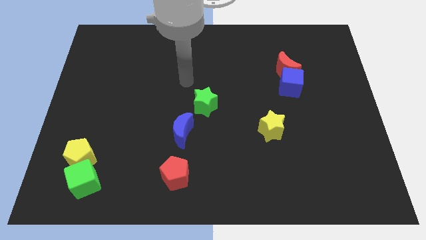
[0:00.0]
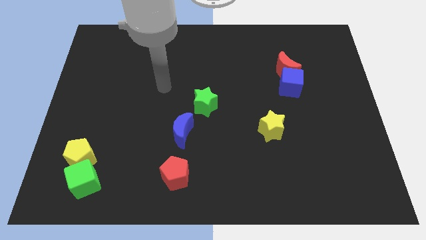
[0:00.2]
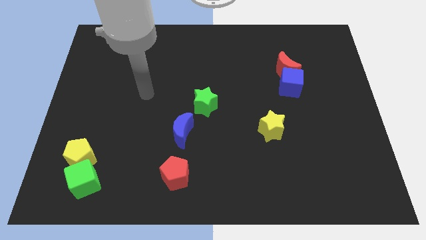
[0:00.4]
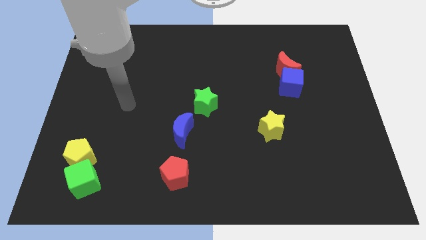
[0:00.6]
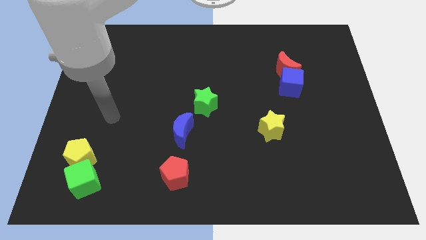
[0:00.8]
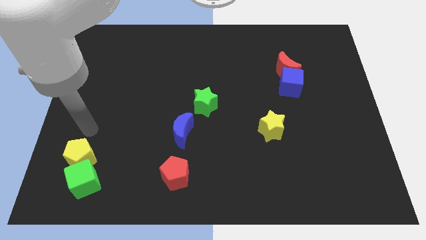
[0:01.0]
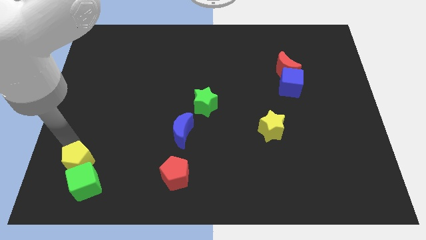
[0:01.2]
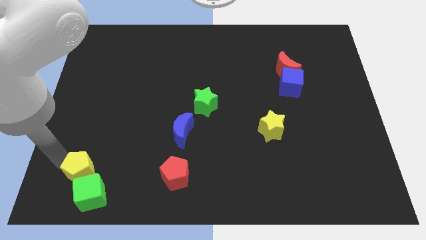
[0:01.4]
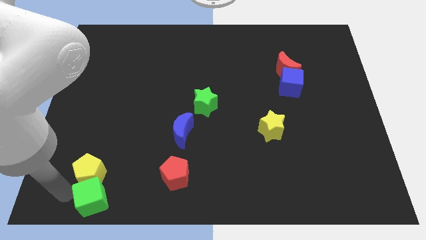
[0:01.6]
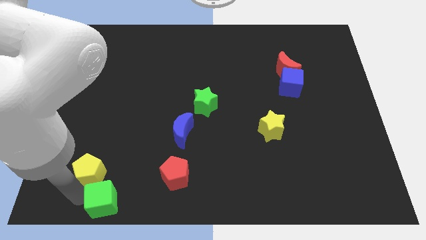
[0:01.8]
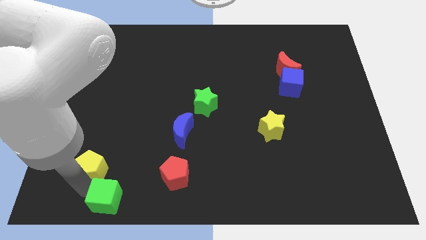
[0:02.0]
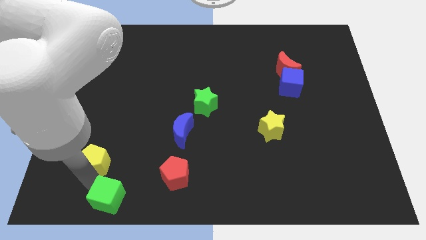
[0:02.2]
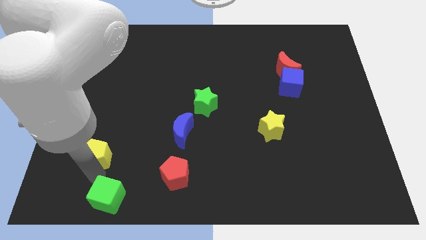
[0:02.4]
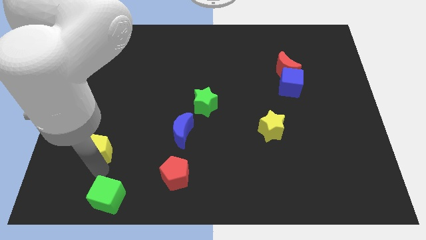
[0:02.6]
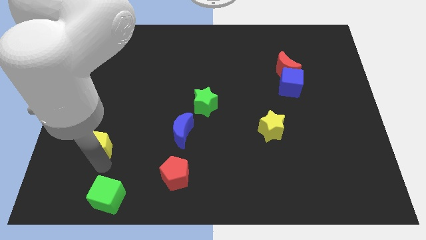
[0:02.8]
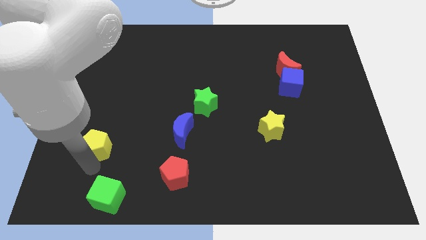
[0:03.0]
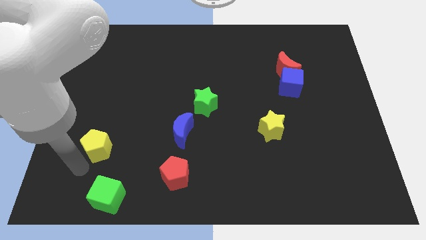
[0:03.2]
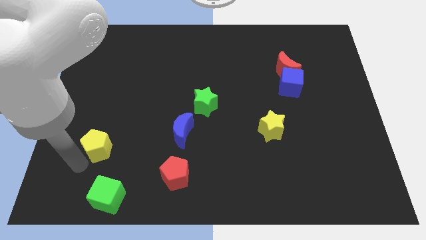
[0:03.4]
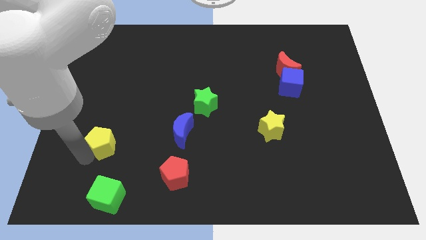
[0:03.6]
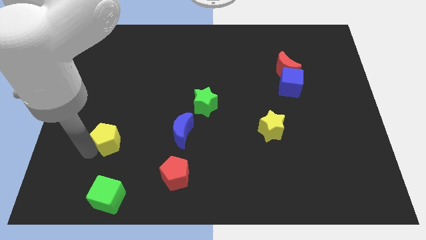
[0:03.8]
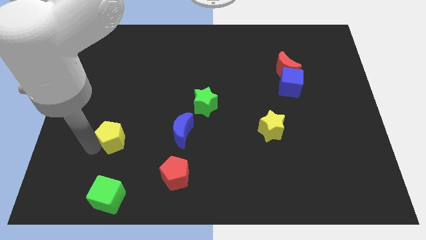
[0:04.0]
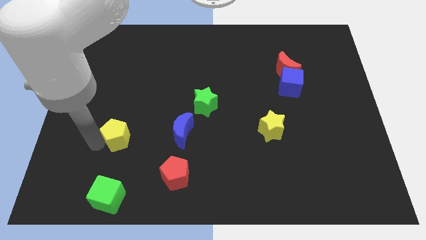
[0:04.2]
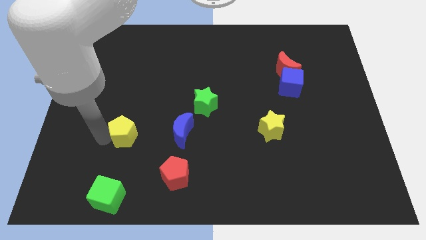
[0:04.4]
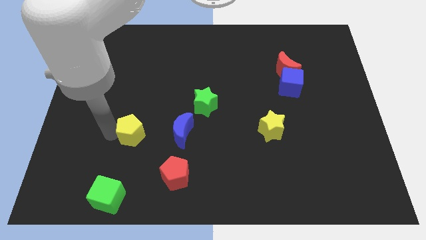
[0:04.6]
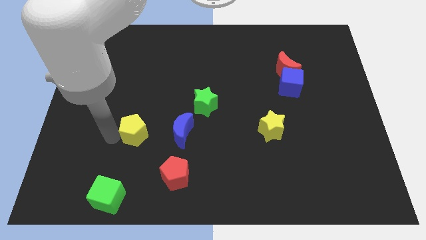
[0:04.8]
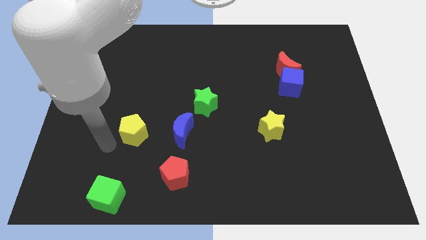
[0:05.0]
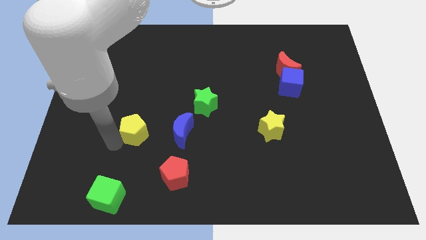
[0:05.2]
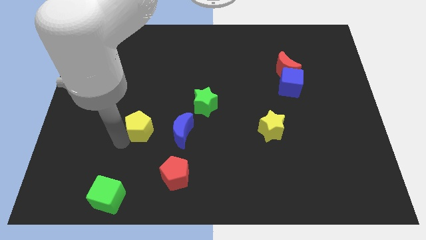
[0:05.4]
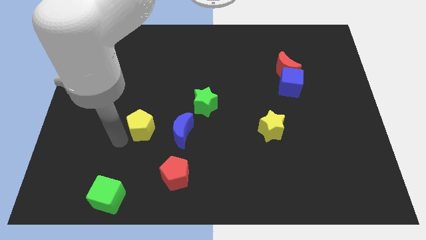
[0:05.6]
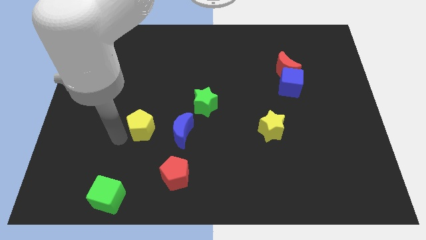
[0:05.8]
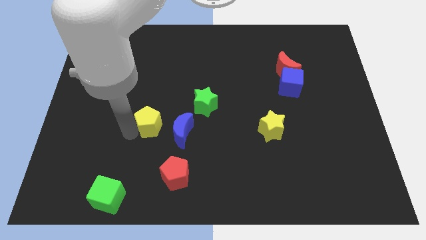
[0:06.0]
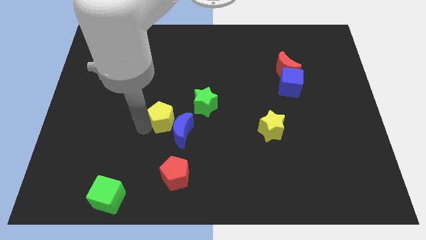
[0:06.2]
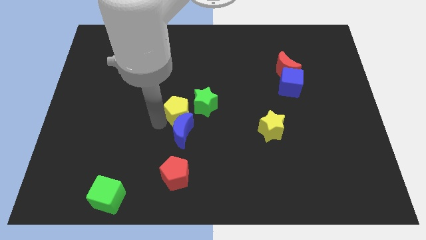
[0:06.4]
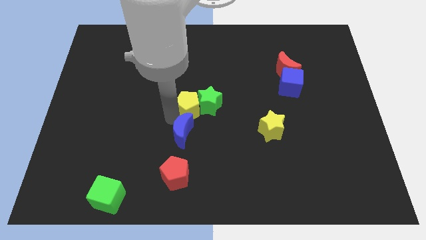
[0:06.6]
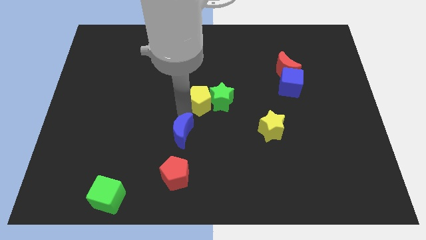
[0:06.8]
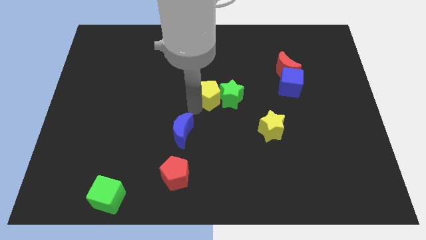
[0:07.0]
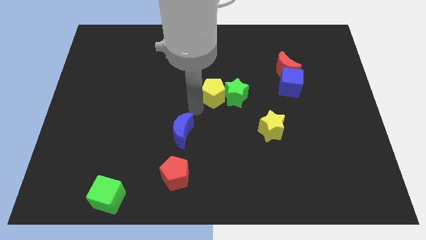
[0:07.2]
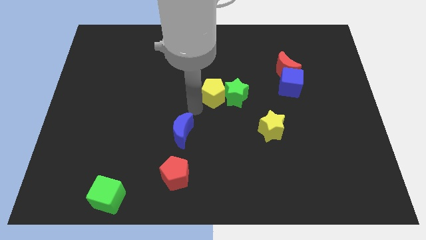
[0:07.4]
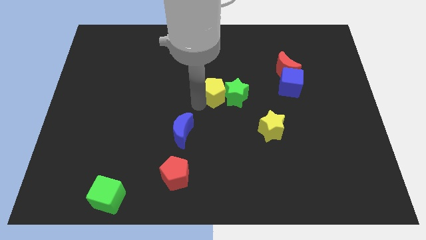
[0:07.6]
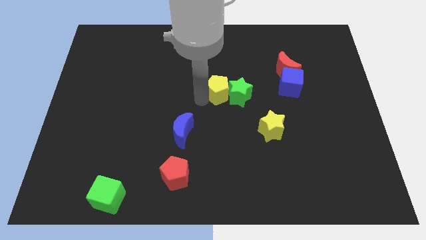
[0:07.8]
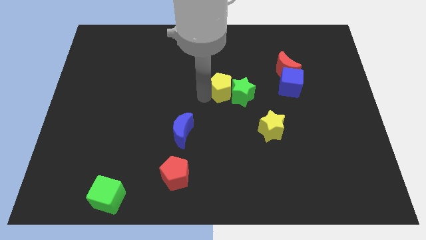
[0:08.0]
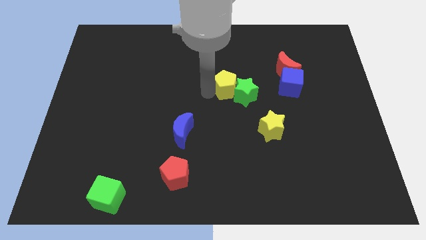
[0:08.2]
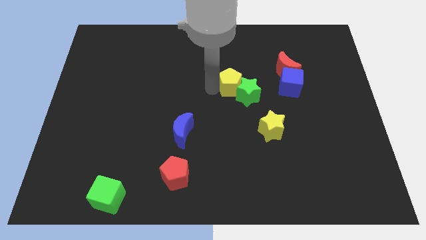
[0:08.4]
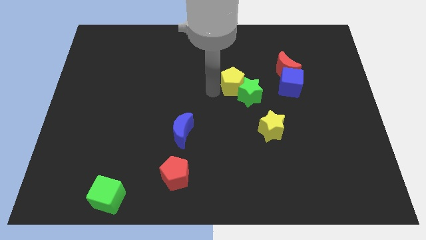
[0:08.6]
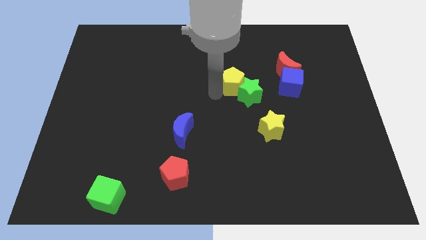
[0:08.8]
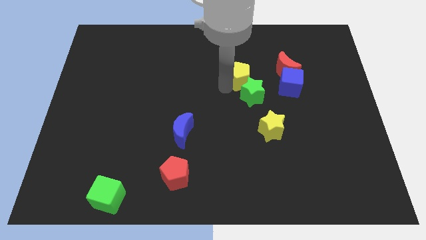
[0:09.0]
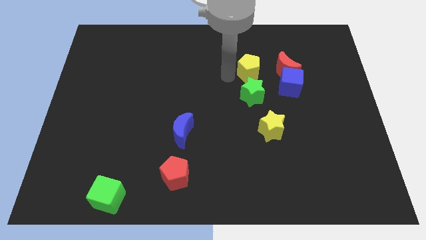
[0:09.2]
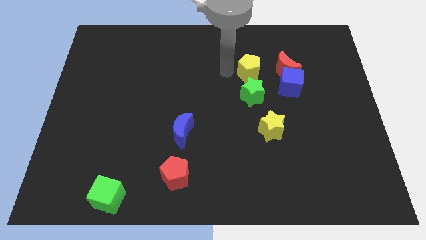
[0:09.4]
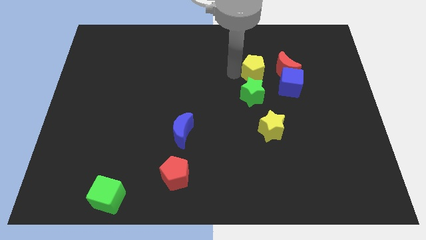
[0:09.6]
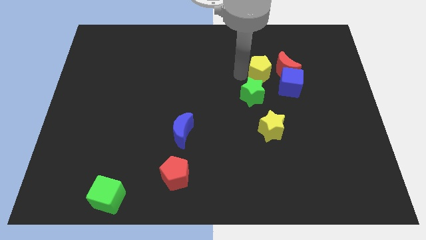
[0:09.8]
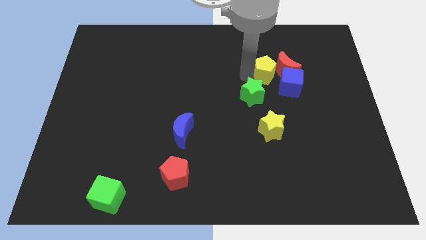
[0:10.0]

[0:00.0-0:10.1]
put the yellow pentagon next to the red moon
